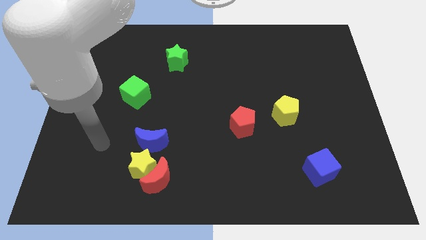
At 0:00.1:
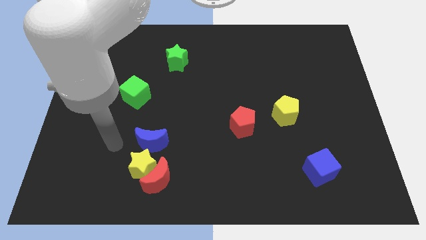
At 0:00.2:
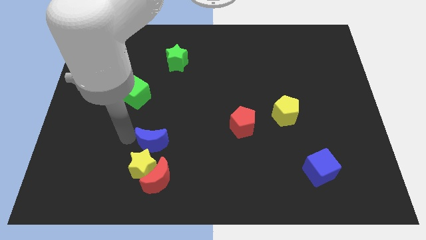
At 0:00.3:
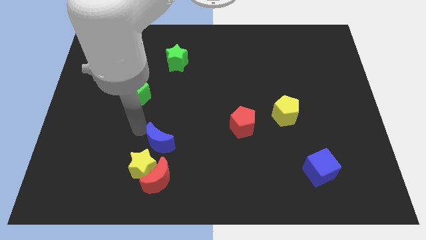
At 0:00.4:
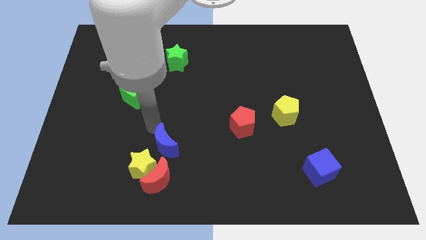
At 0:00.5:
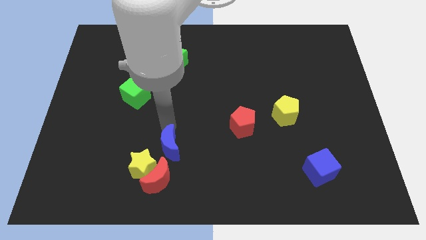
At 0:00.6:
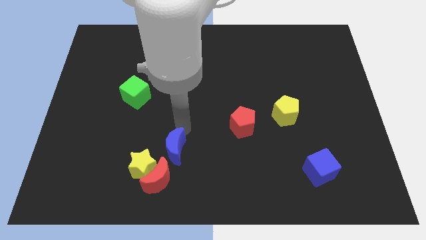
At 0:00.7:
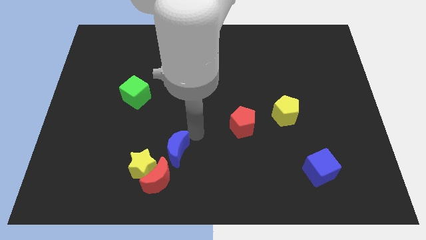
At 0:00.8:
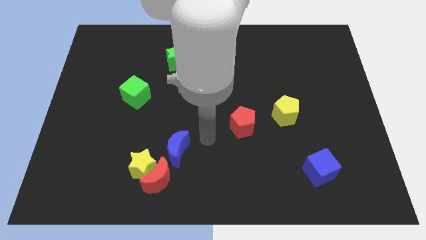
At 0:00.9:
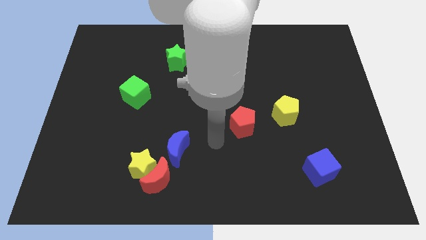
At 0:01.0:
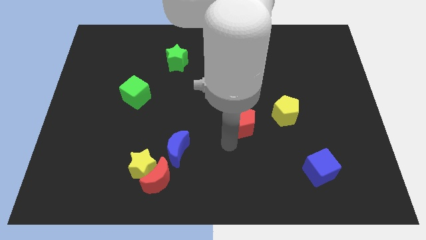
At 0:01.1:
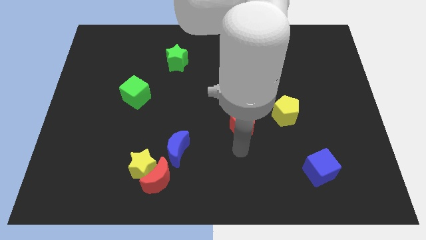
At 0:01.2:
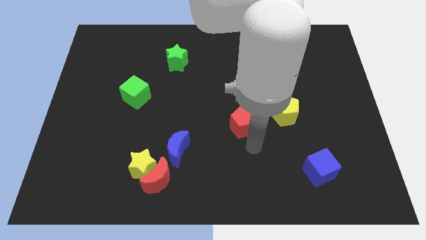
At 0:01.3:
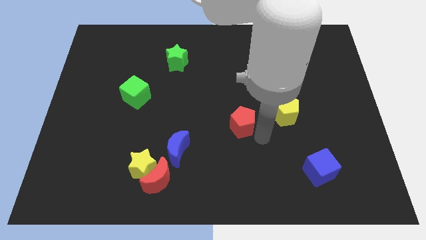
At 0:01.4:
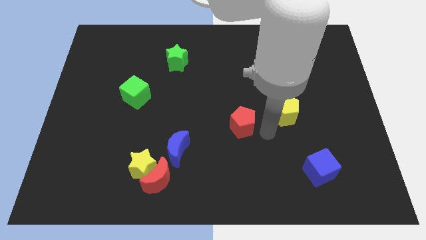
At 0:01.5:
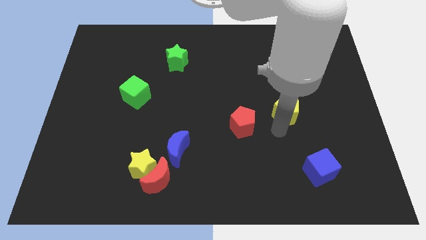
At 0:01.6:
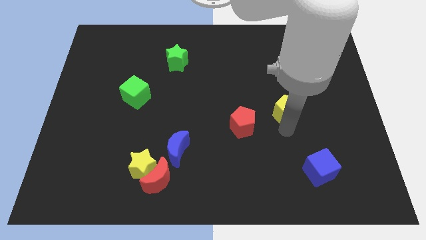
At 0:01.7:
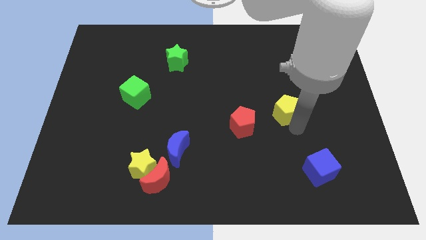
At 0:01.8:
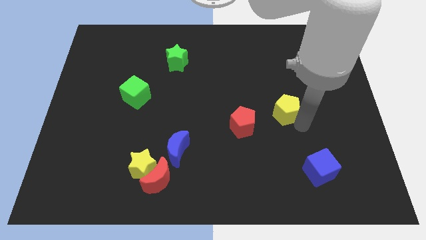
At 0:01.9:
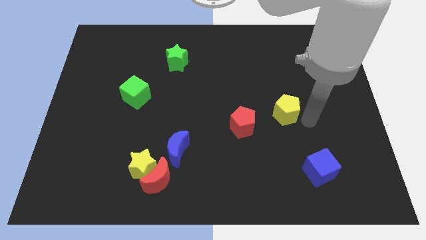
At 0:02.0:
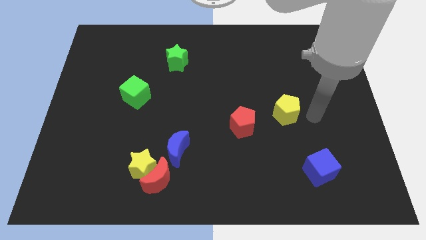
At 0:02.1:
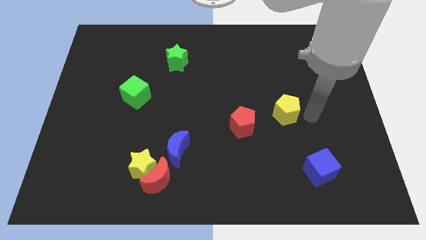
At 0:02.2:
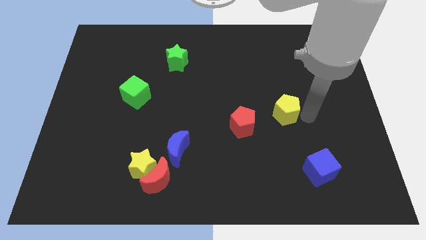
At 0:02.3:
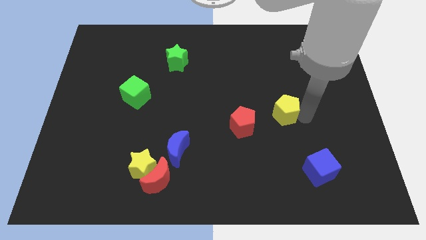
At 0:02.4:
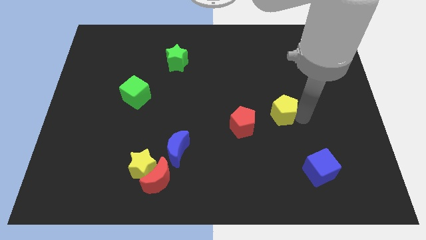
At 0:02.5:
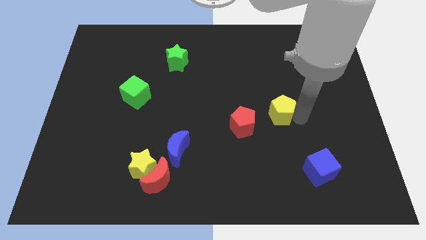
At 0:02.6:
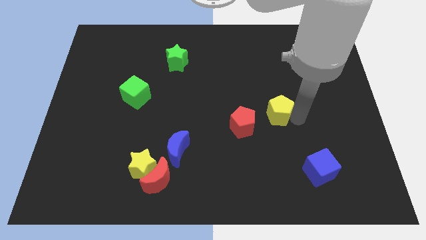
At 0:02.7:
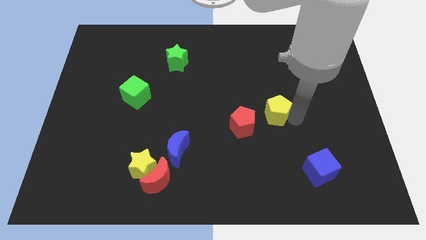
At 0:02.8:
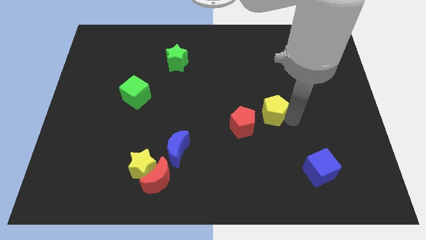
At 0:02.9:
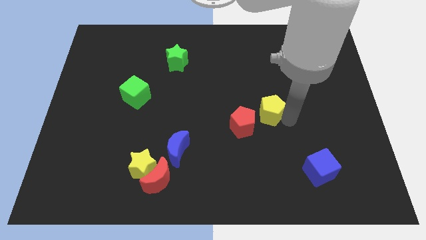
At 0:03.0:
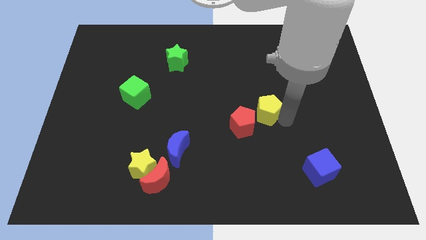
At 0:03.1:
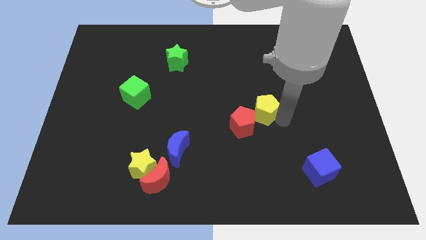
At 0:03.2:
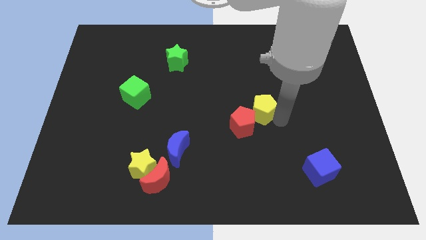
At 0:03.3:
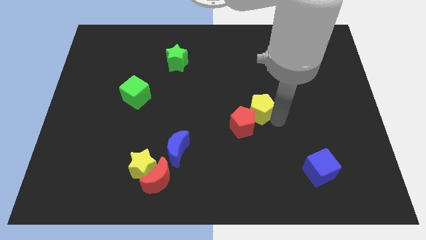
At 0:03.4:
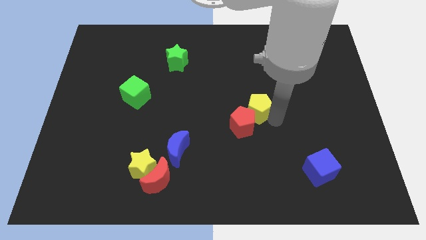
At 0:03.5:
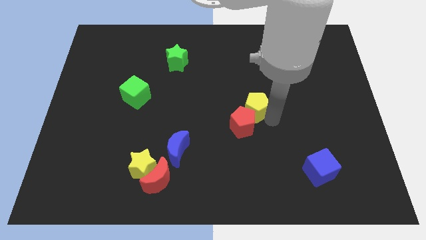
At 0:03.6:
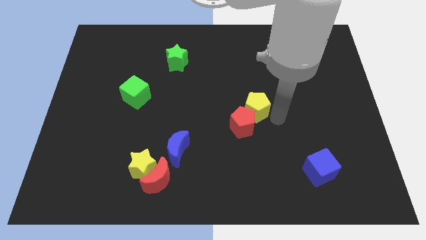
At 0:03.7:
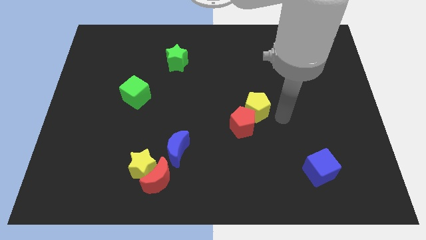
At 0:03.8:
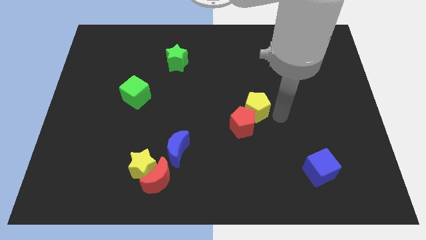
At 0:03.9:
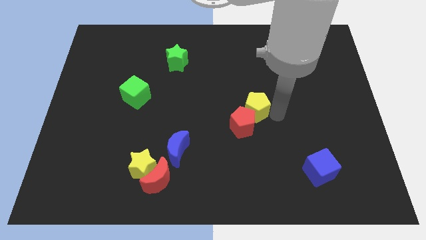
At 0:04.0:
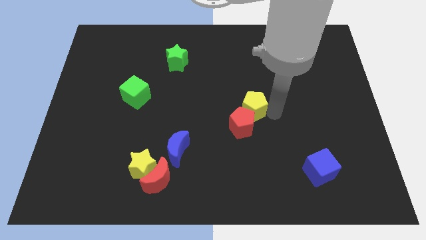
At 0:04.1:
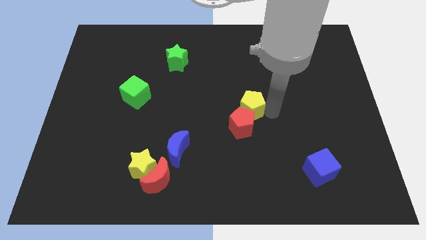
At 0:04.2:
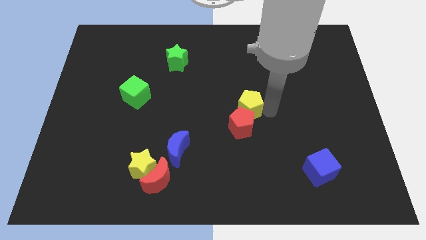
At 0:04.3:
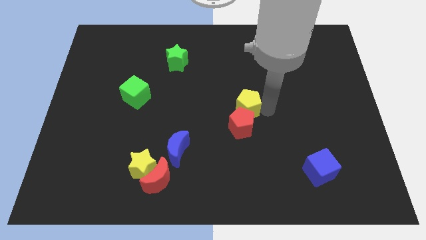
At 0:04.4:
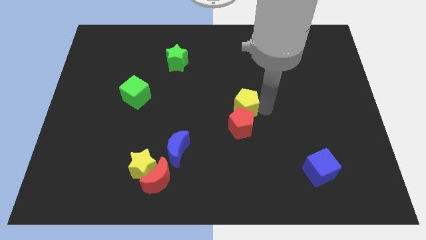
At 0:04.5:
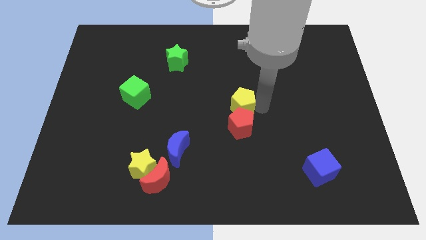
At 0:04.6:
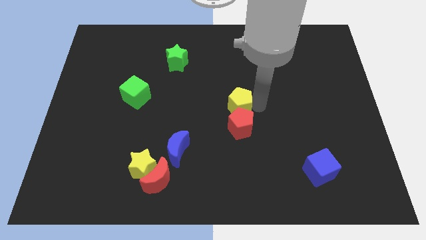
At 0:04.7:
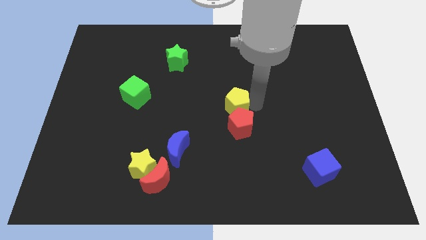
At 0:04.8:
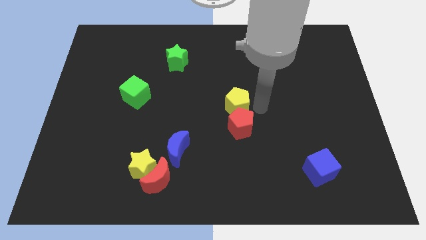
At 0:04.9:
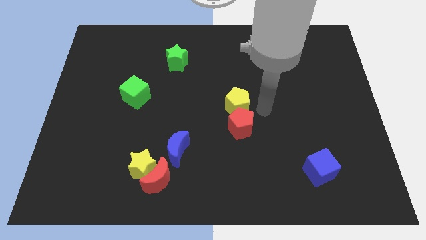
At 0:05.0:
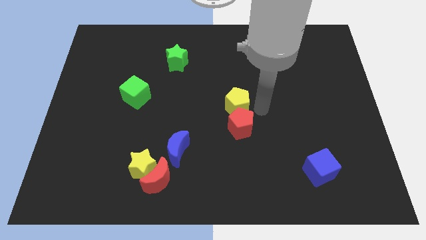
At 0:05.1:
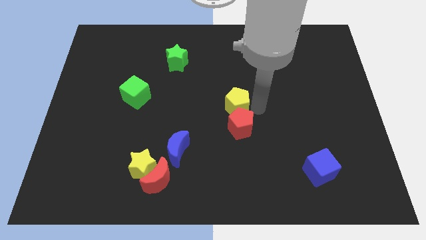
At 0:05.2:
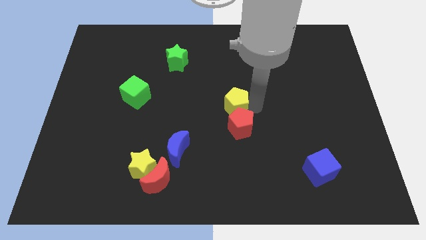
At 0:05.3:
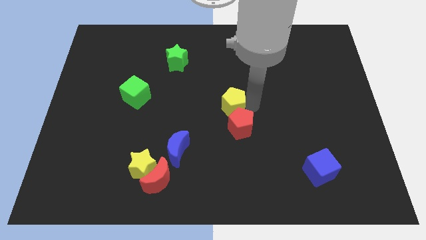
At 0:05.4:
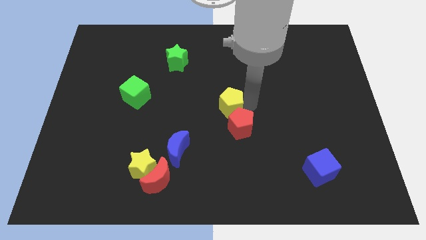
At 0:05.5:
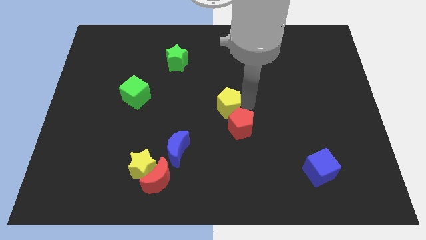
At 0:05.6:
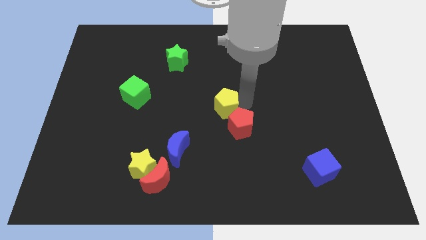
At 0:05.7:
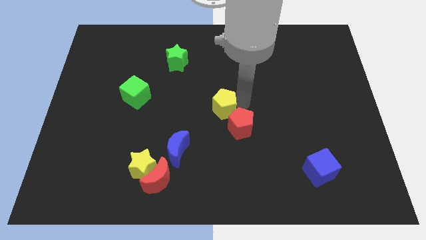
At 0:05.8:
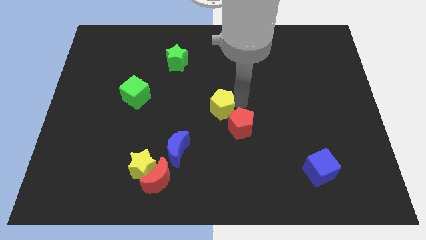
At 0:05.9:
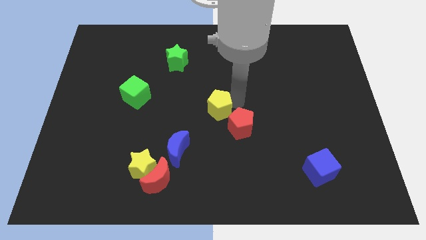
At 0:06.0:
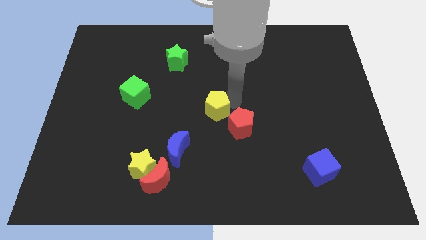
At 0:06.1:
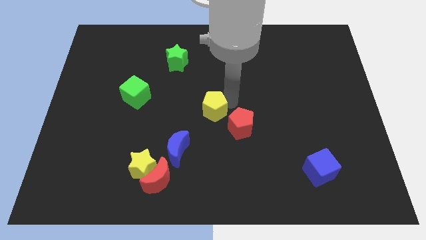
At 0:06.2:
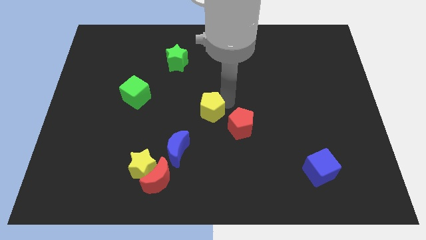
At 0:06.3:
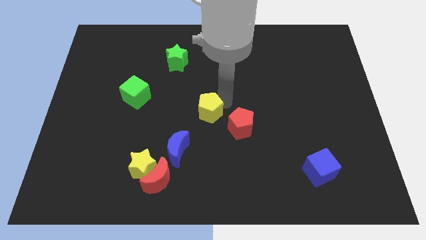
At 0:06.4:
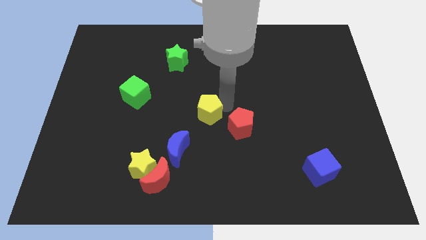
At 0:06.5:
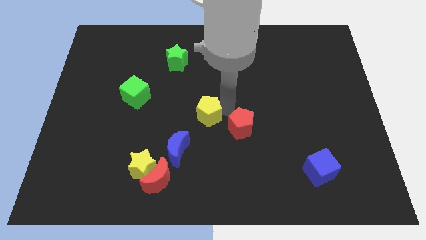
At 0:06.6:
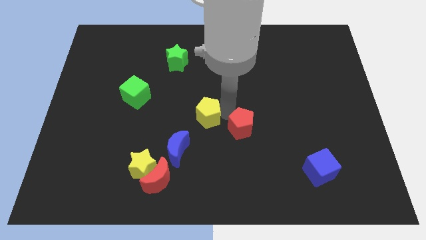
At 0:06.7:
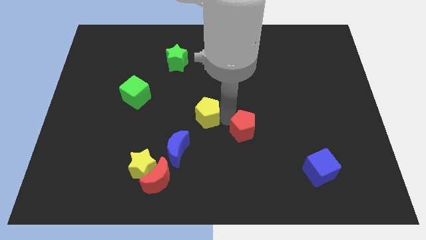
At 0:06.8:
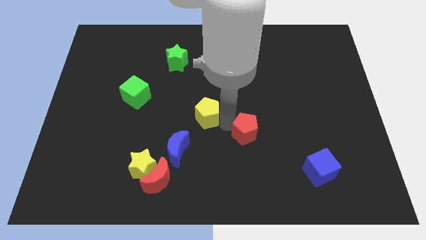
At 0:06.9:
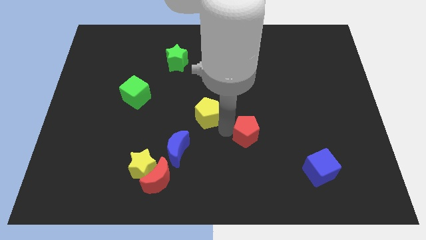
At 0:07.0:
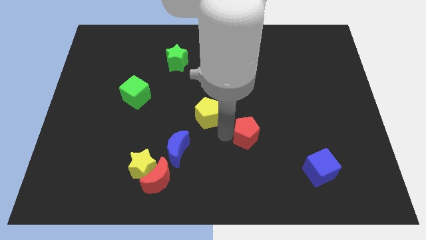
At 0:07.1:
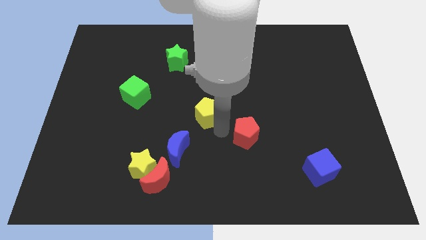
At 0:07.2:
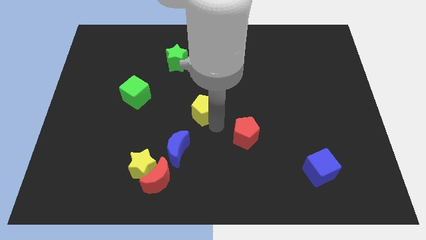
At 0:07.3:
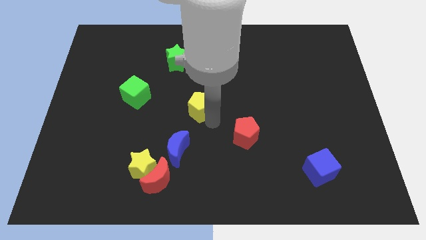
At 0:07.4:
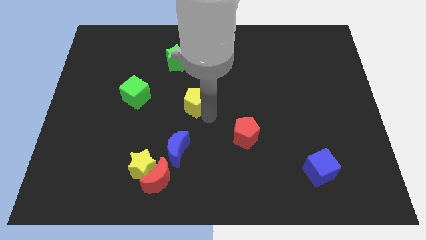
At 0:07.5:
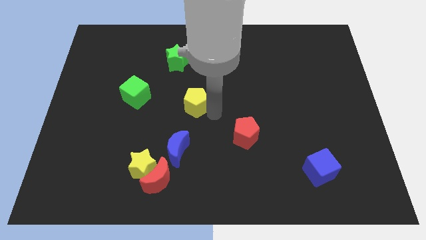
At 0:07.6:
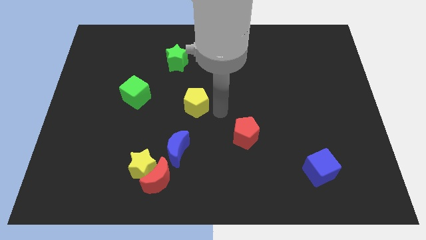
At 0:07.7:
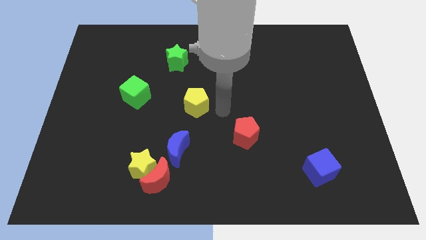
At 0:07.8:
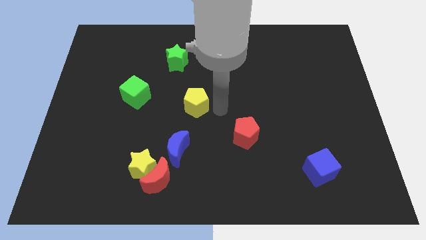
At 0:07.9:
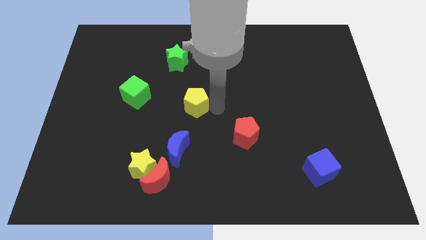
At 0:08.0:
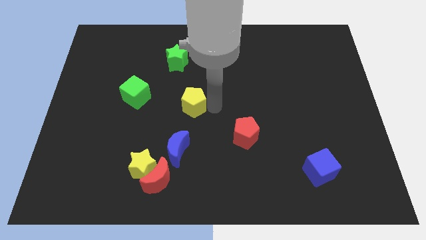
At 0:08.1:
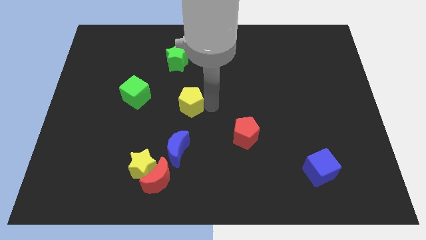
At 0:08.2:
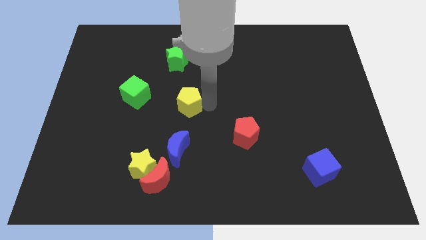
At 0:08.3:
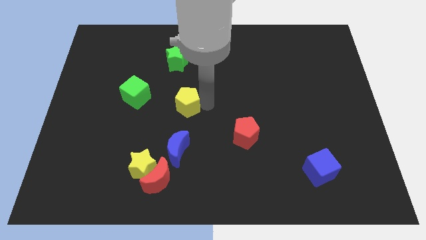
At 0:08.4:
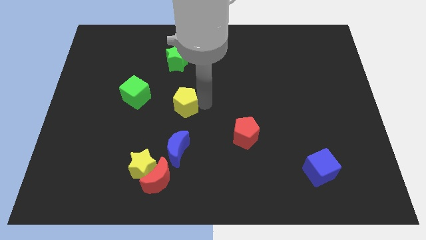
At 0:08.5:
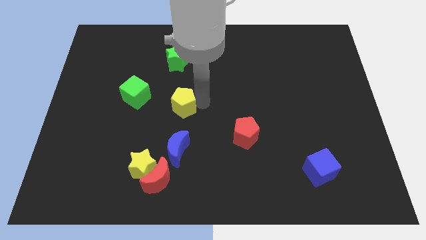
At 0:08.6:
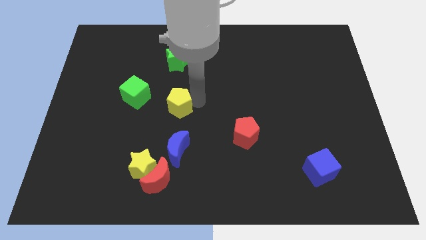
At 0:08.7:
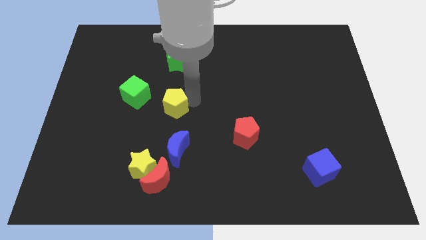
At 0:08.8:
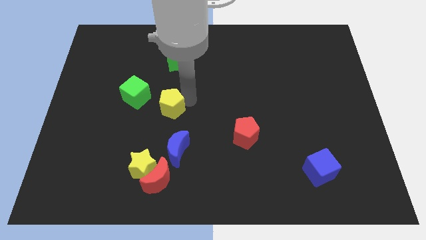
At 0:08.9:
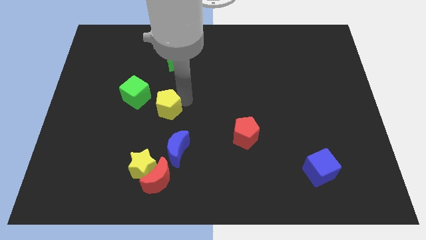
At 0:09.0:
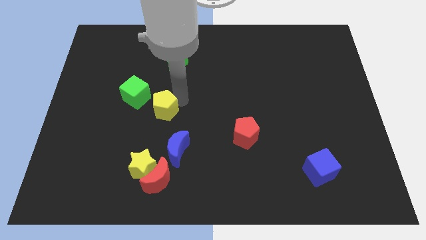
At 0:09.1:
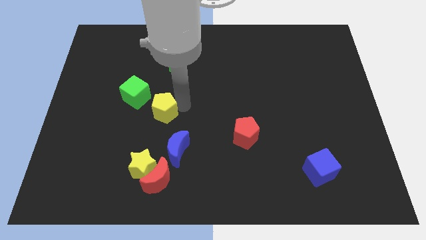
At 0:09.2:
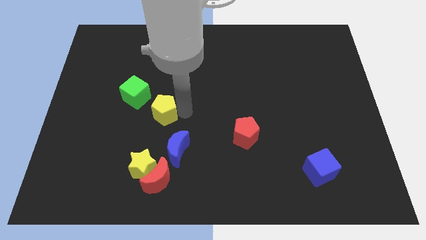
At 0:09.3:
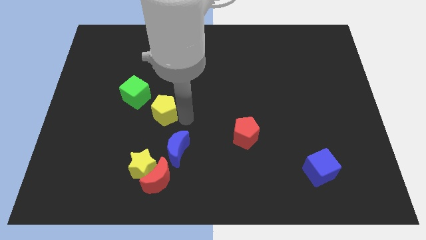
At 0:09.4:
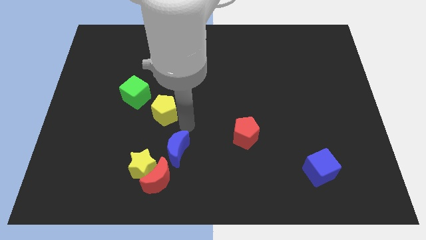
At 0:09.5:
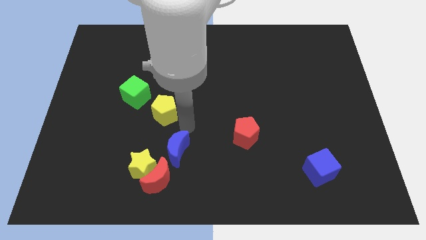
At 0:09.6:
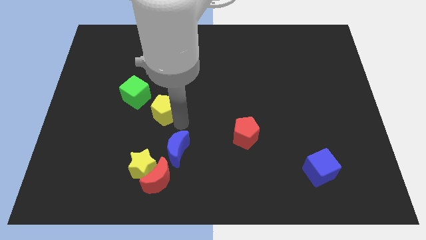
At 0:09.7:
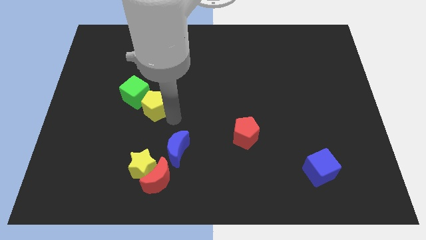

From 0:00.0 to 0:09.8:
put the yellow pentagon close to the green cube
